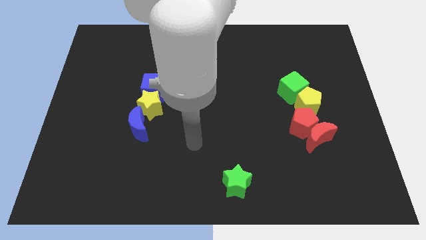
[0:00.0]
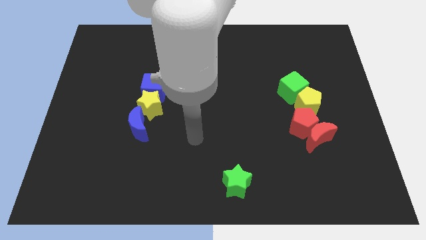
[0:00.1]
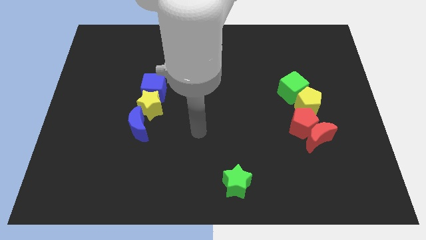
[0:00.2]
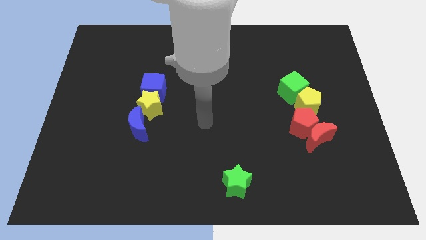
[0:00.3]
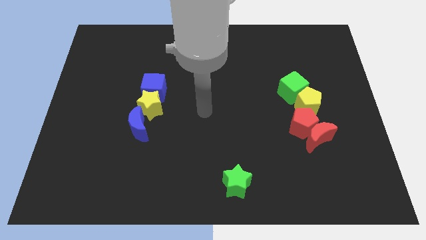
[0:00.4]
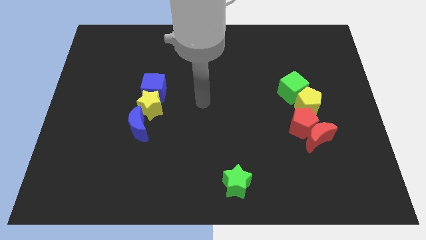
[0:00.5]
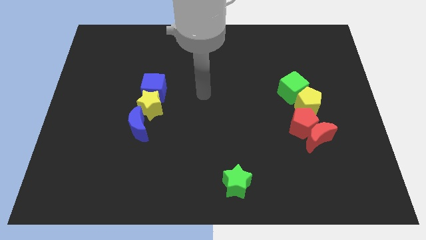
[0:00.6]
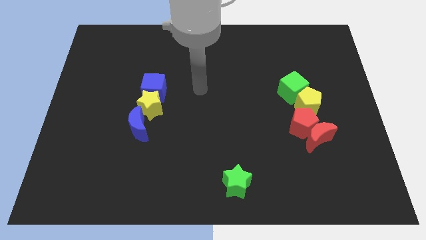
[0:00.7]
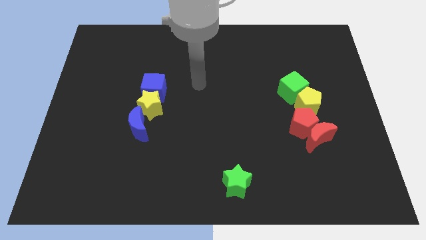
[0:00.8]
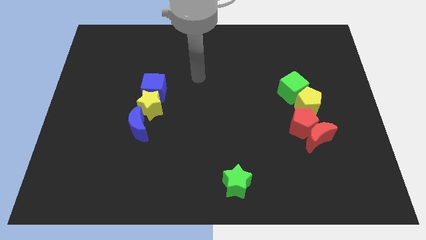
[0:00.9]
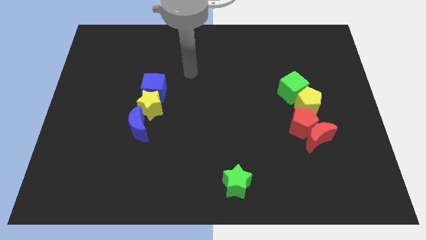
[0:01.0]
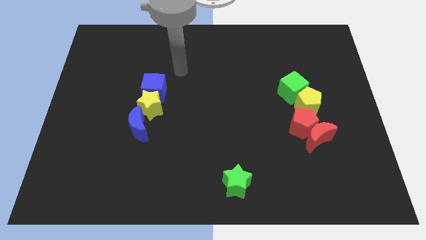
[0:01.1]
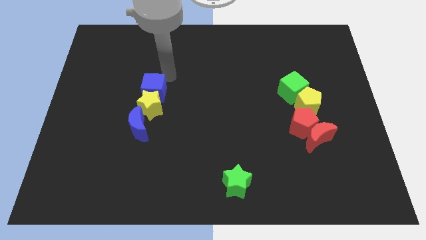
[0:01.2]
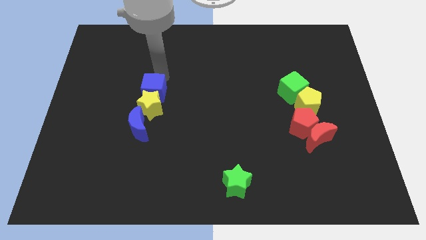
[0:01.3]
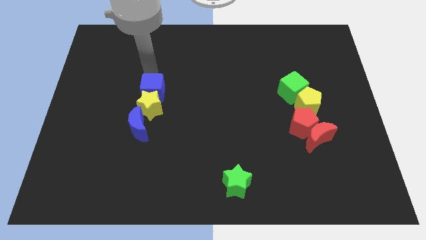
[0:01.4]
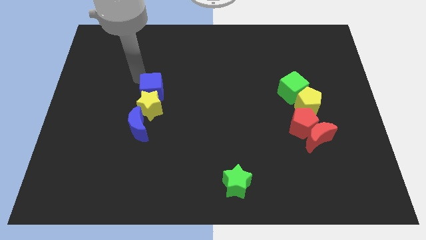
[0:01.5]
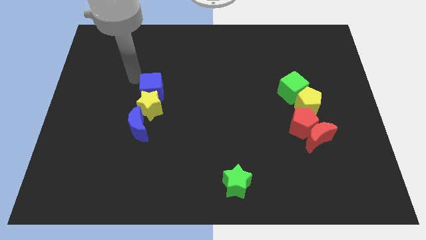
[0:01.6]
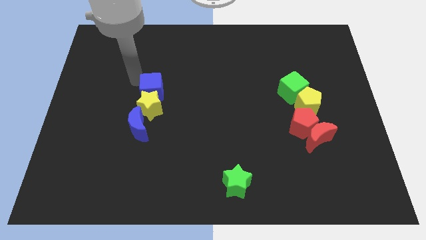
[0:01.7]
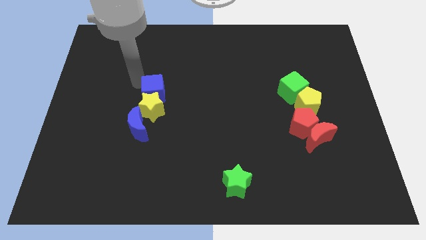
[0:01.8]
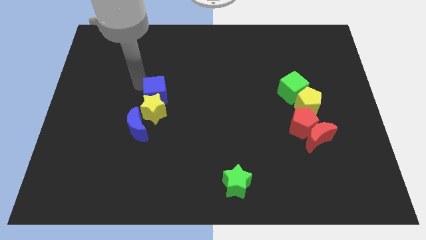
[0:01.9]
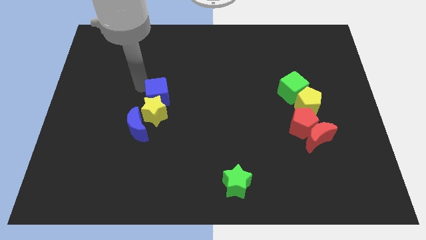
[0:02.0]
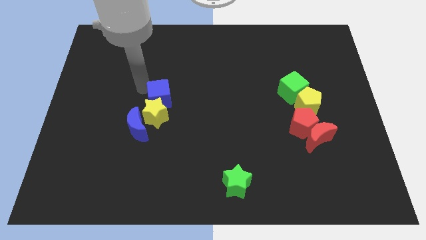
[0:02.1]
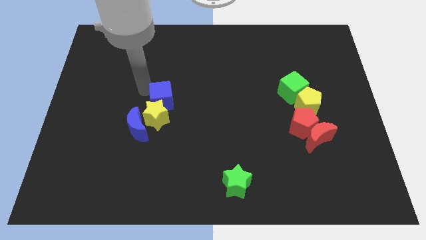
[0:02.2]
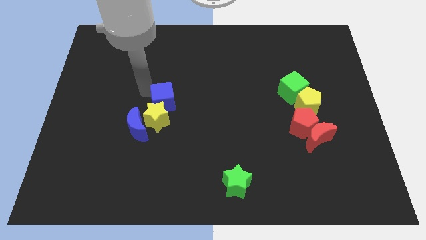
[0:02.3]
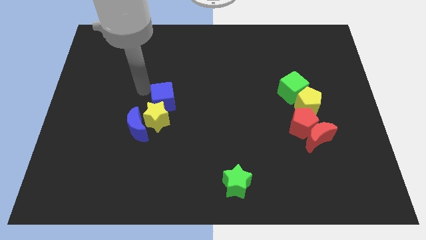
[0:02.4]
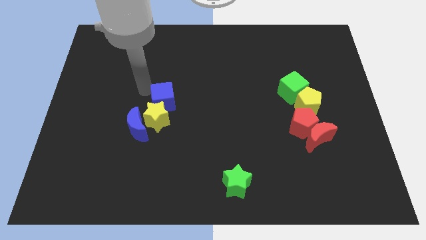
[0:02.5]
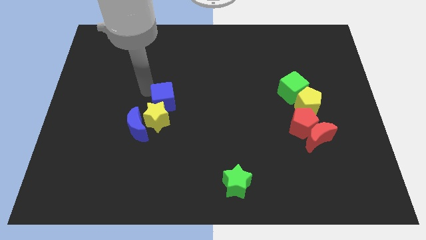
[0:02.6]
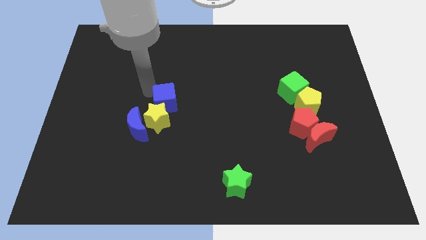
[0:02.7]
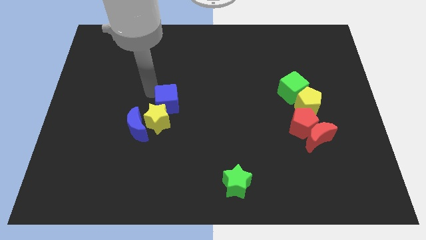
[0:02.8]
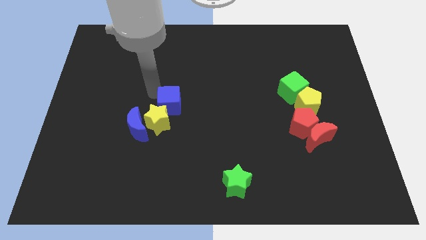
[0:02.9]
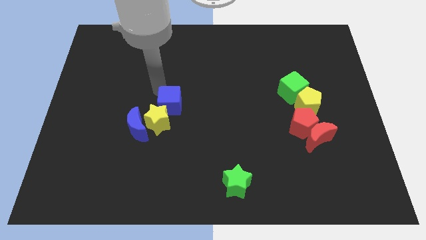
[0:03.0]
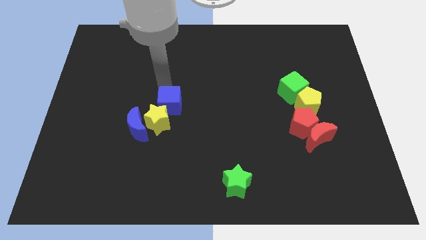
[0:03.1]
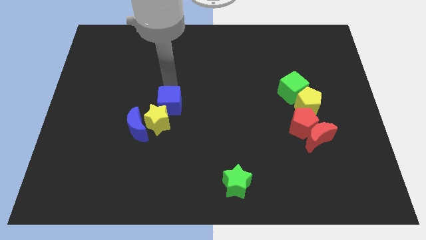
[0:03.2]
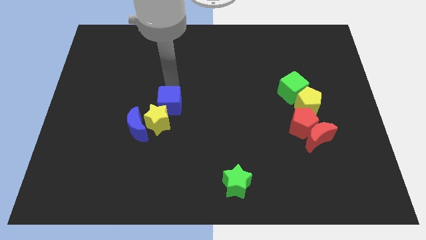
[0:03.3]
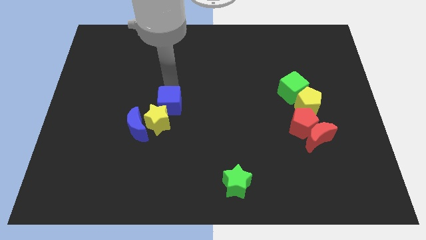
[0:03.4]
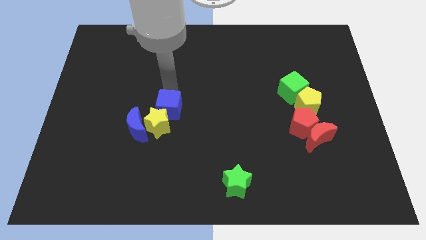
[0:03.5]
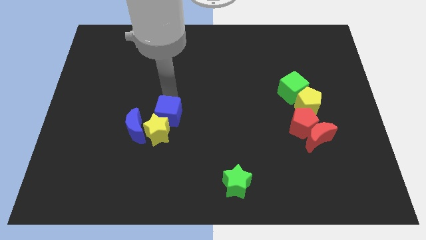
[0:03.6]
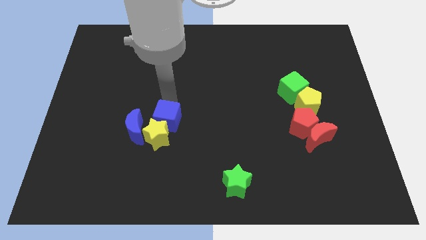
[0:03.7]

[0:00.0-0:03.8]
slightly slide the blue cube down

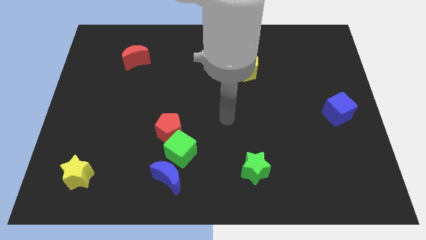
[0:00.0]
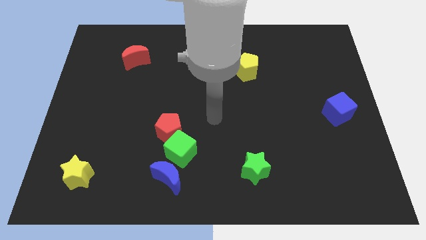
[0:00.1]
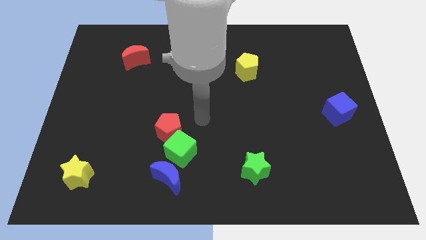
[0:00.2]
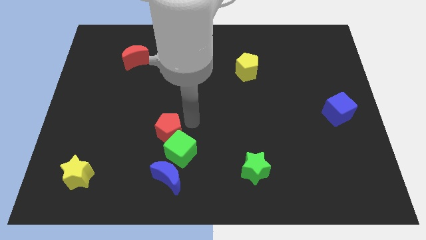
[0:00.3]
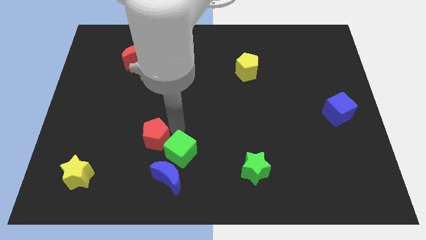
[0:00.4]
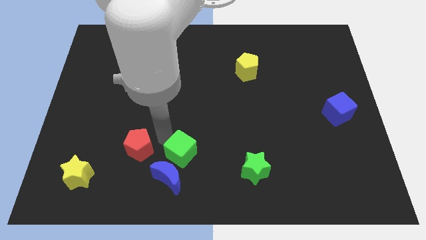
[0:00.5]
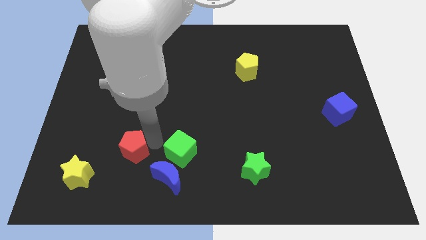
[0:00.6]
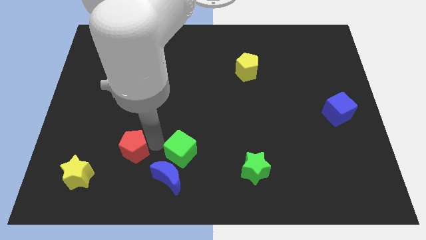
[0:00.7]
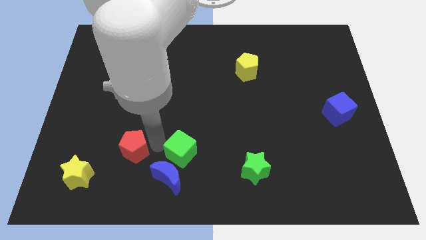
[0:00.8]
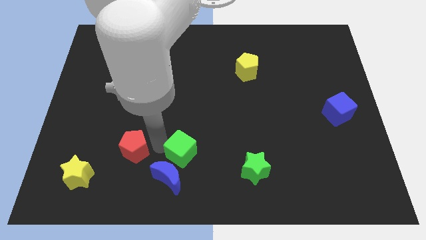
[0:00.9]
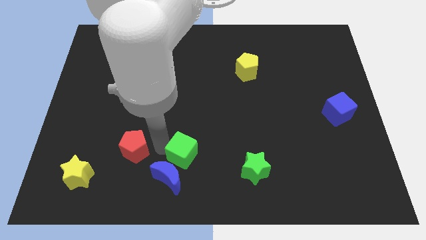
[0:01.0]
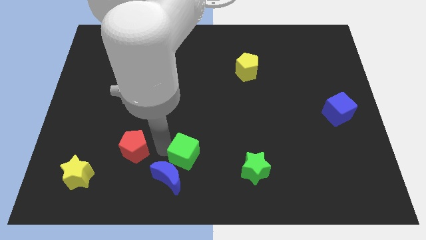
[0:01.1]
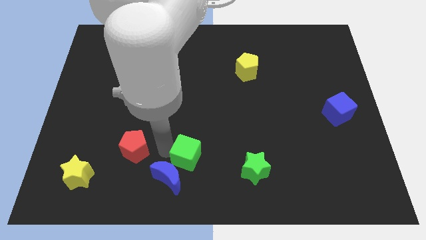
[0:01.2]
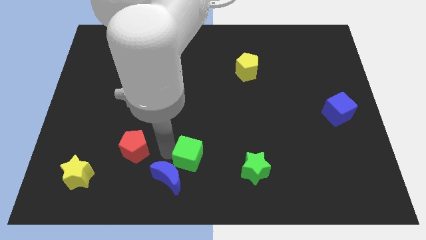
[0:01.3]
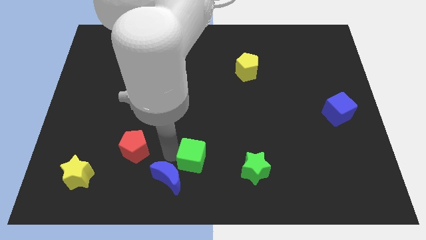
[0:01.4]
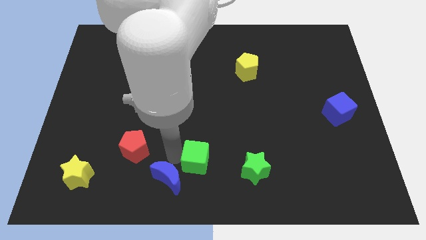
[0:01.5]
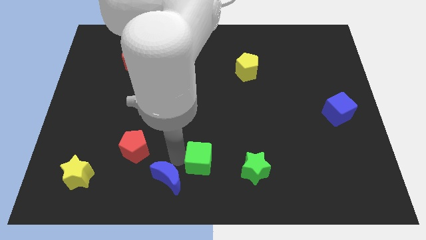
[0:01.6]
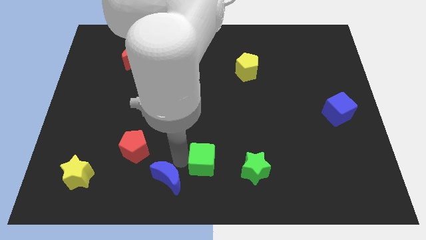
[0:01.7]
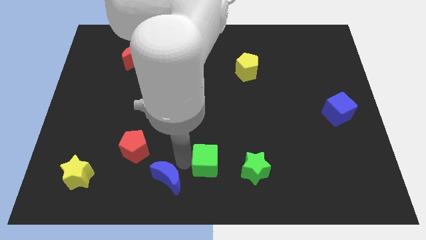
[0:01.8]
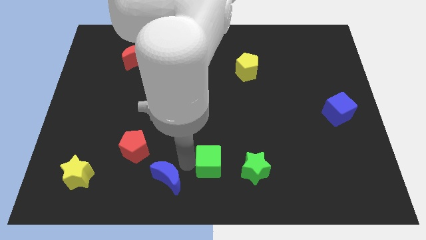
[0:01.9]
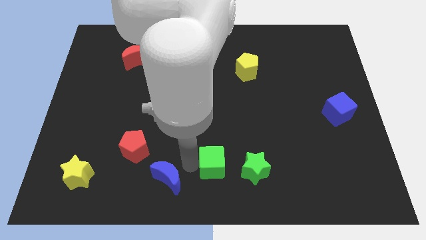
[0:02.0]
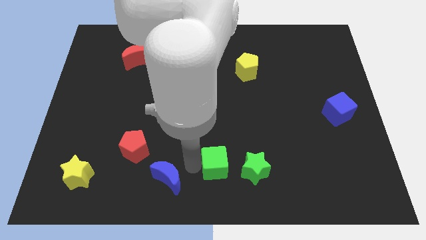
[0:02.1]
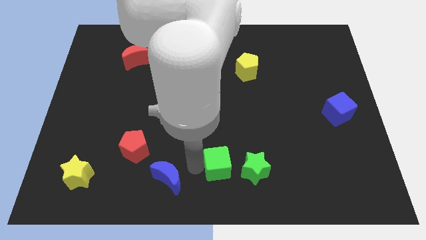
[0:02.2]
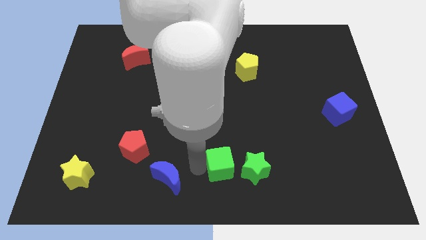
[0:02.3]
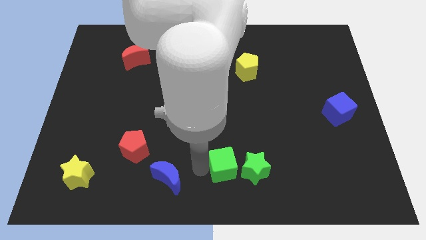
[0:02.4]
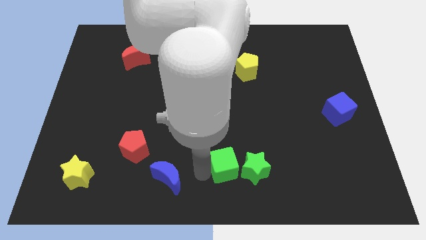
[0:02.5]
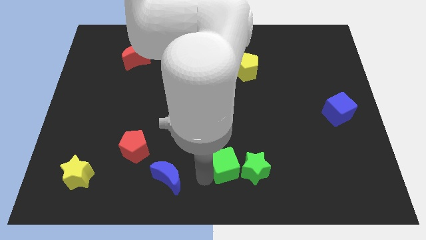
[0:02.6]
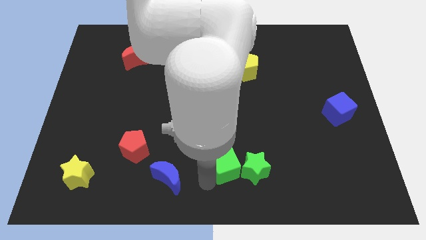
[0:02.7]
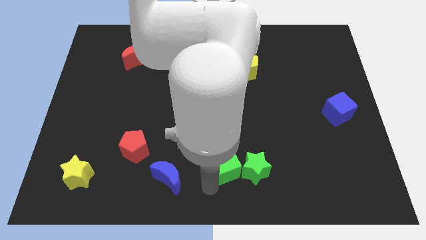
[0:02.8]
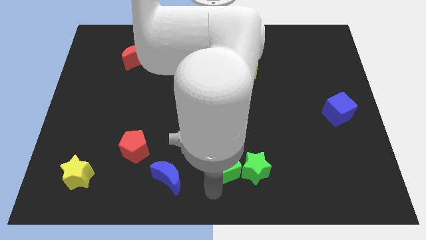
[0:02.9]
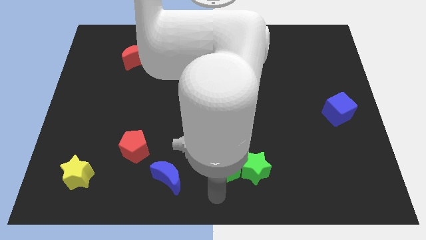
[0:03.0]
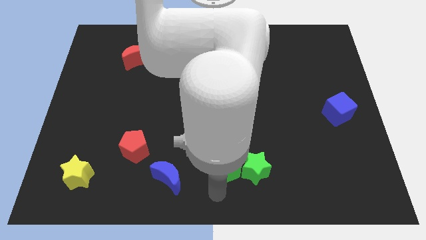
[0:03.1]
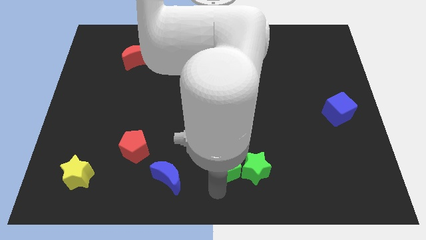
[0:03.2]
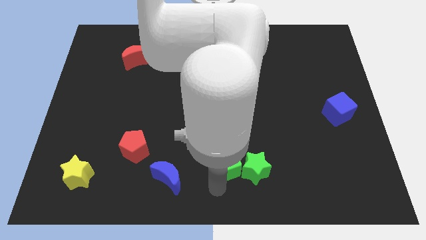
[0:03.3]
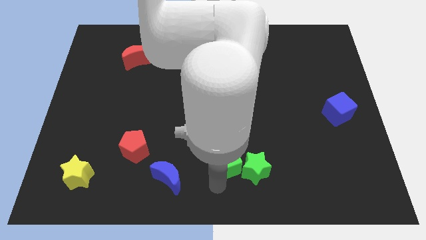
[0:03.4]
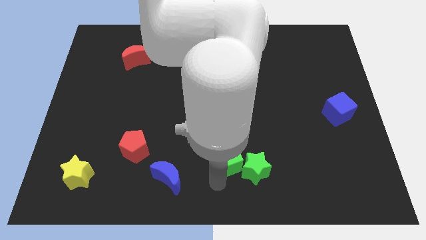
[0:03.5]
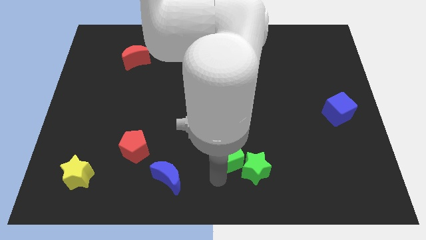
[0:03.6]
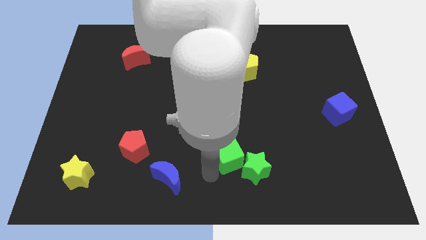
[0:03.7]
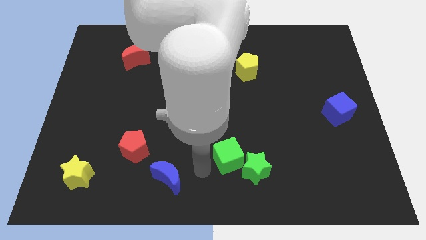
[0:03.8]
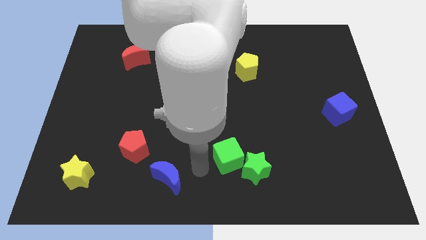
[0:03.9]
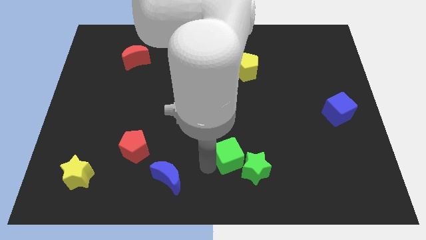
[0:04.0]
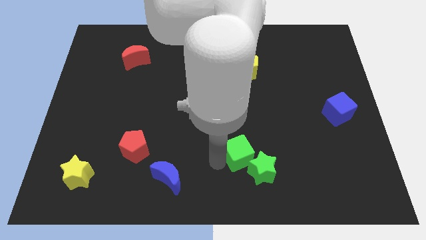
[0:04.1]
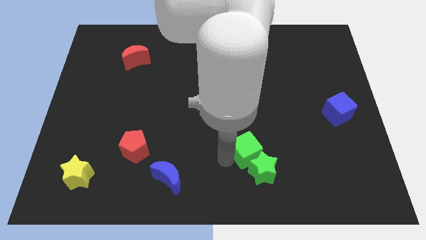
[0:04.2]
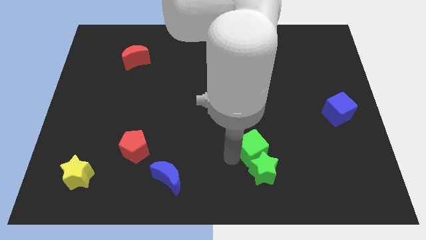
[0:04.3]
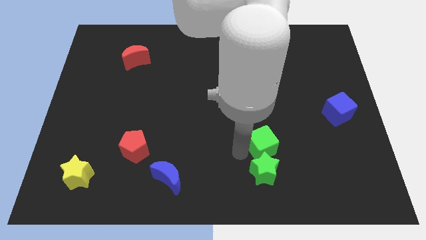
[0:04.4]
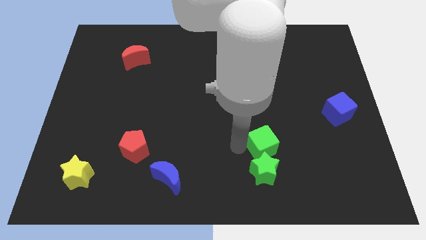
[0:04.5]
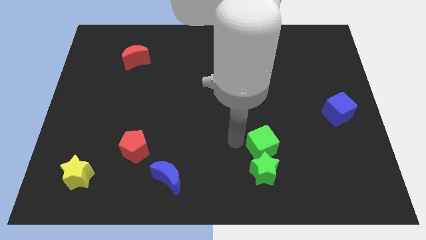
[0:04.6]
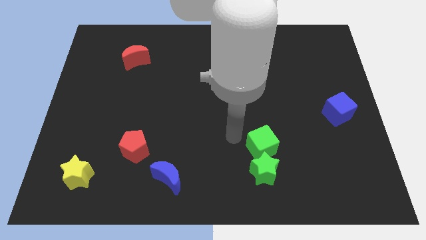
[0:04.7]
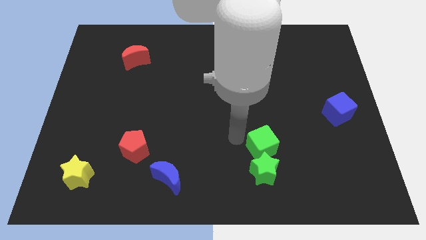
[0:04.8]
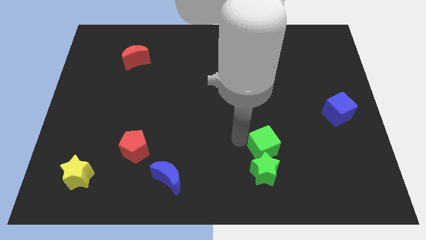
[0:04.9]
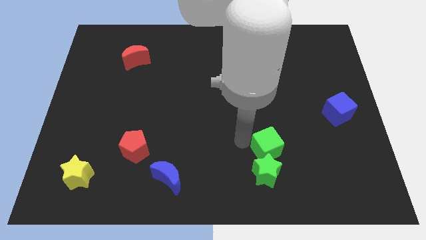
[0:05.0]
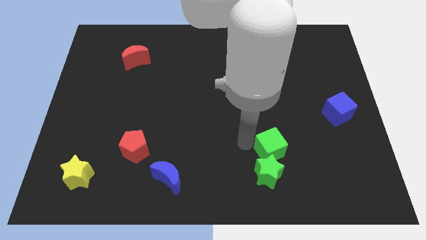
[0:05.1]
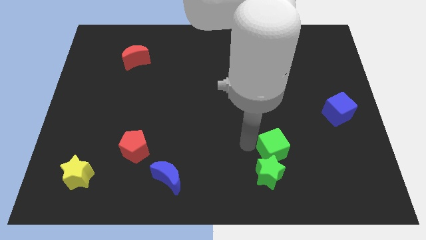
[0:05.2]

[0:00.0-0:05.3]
push the green cube right
